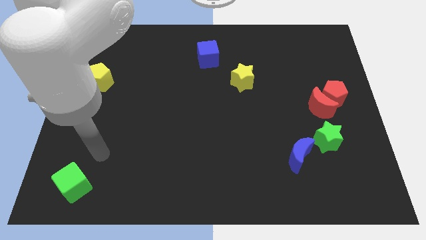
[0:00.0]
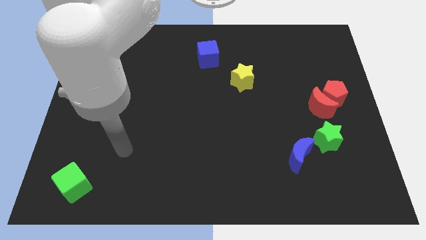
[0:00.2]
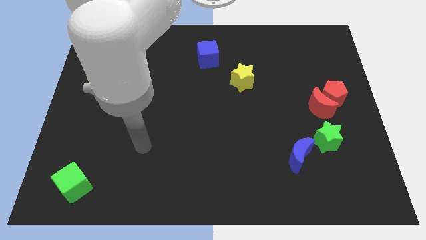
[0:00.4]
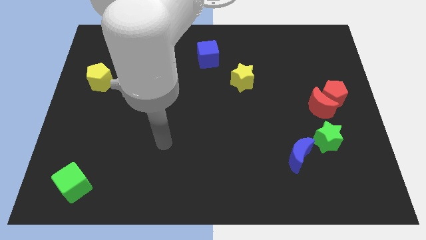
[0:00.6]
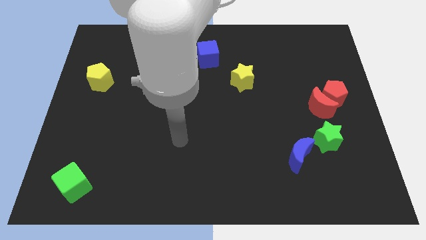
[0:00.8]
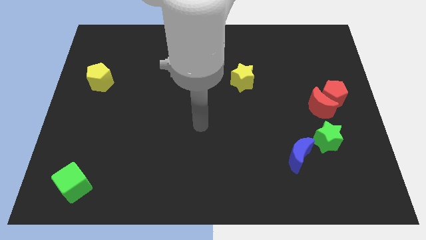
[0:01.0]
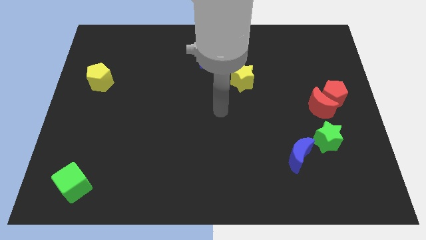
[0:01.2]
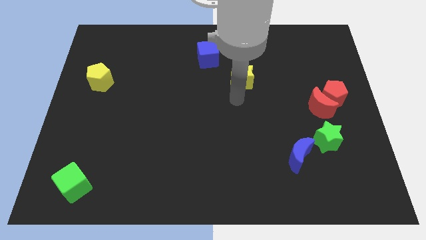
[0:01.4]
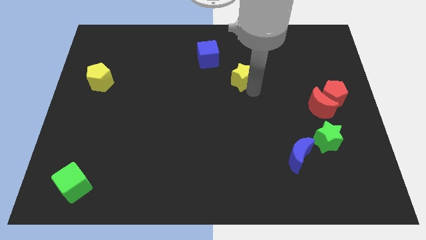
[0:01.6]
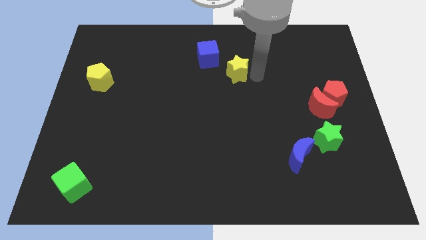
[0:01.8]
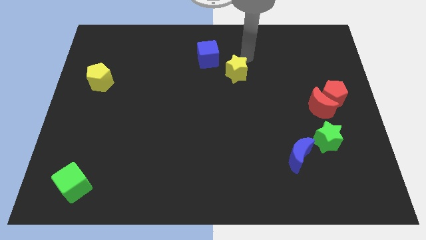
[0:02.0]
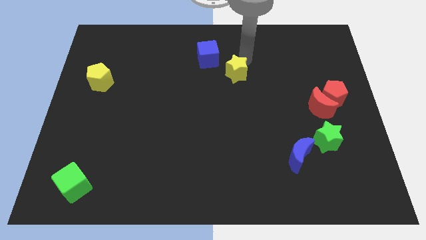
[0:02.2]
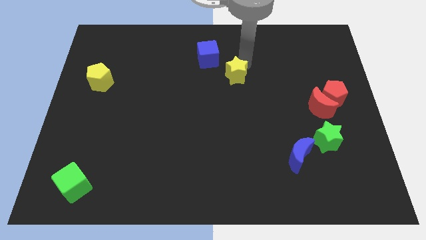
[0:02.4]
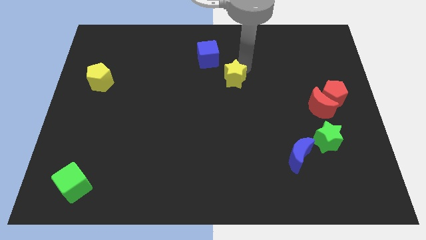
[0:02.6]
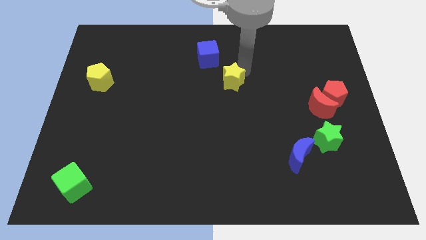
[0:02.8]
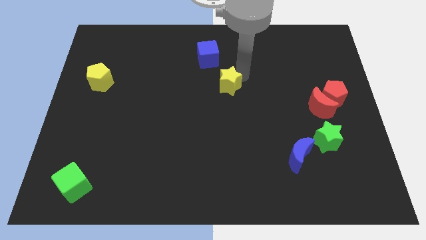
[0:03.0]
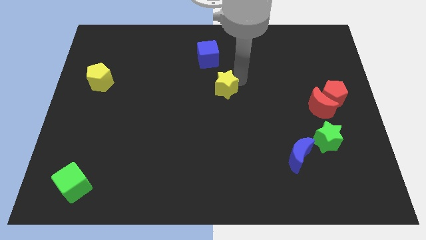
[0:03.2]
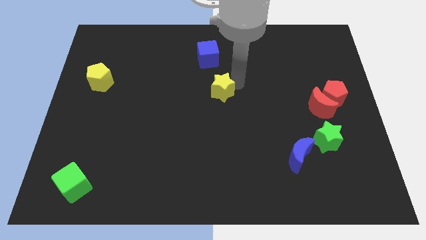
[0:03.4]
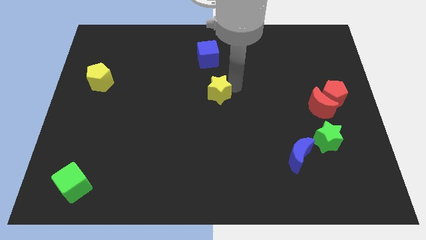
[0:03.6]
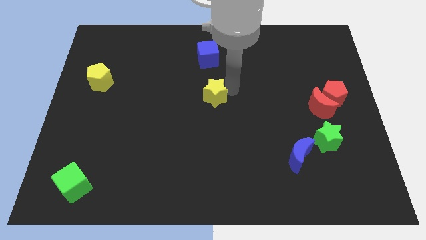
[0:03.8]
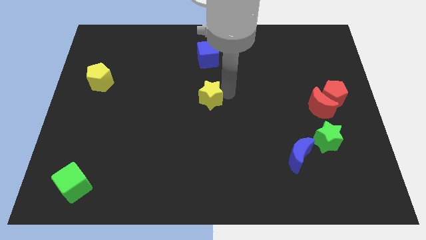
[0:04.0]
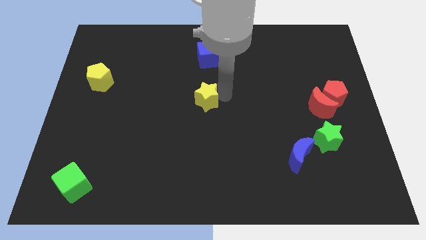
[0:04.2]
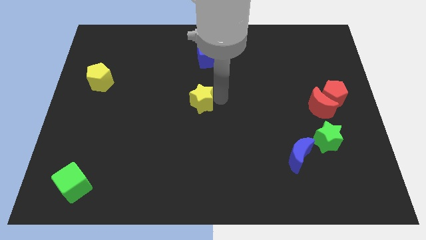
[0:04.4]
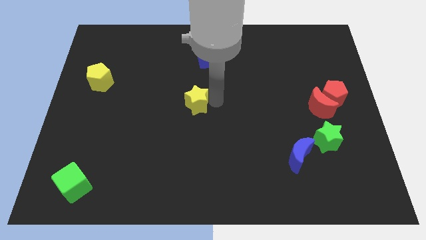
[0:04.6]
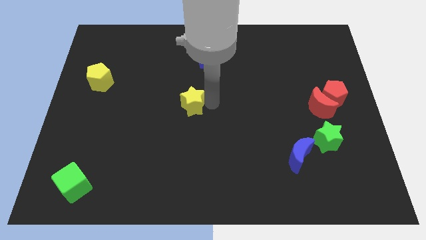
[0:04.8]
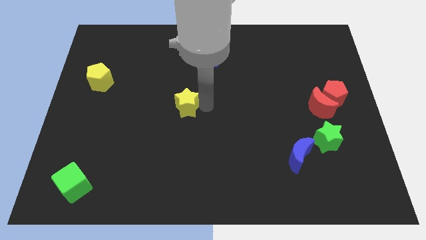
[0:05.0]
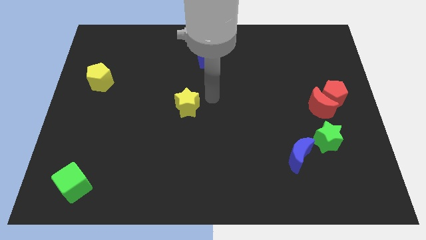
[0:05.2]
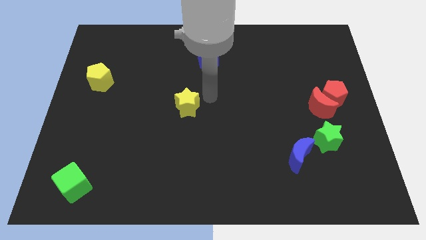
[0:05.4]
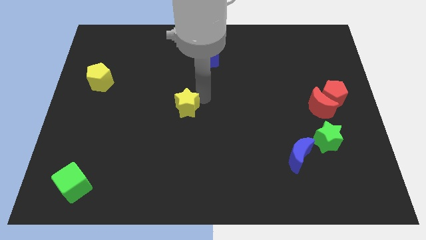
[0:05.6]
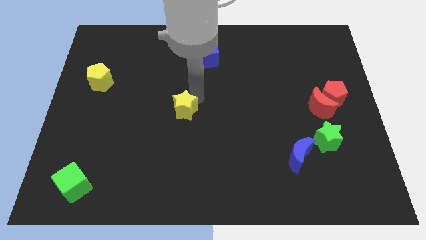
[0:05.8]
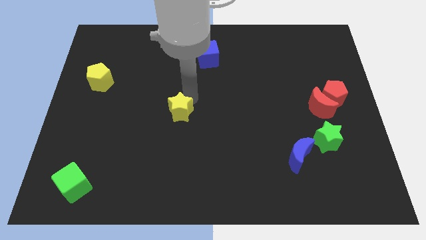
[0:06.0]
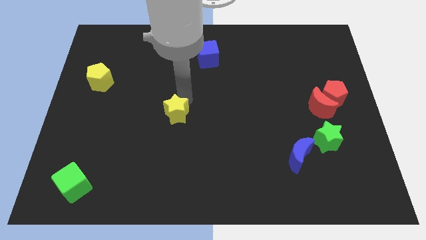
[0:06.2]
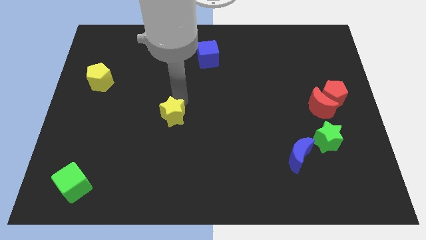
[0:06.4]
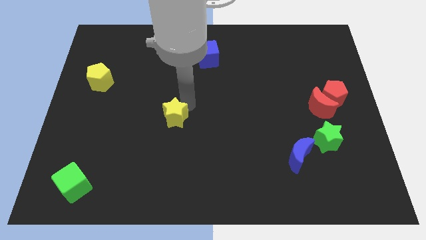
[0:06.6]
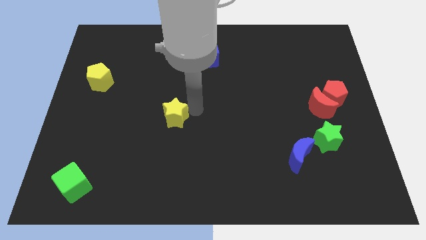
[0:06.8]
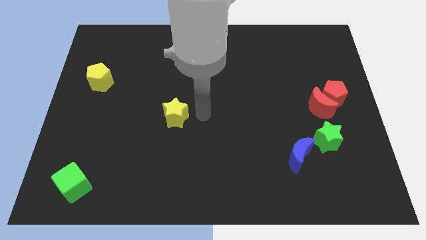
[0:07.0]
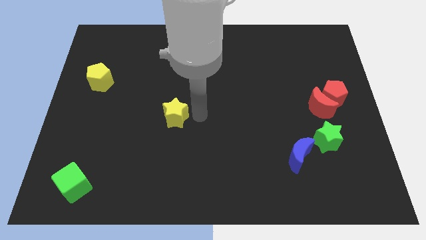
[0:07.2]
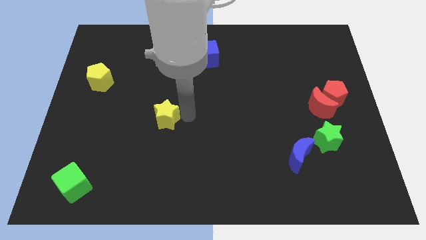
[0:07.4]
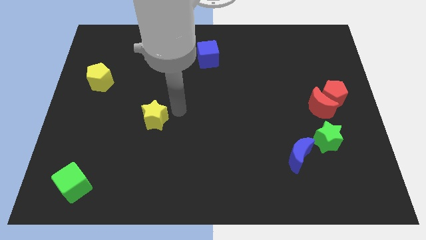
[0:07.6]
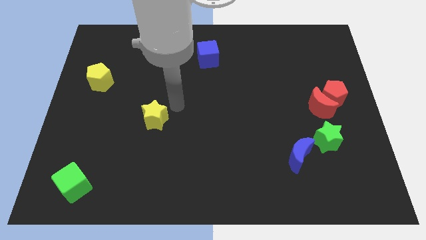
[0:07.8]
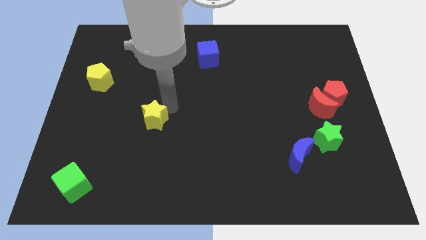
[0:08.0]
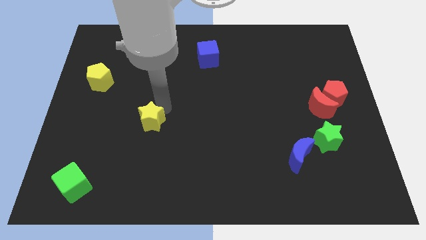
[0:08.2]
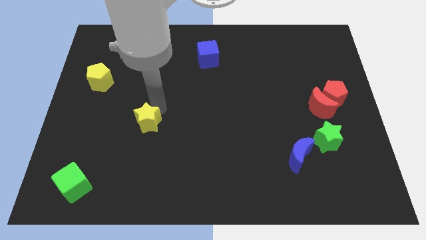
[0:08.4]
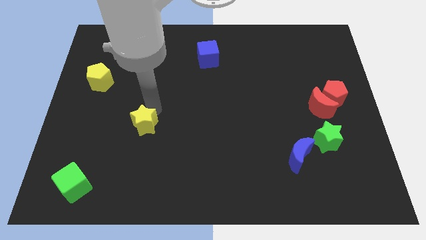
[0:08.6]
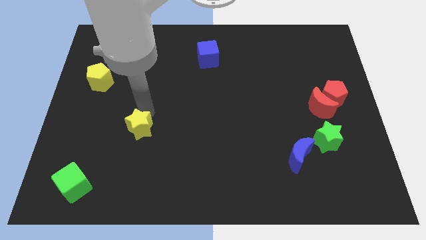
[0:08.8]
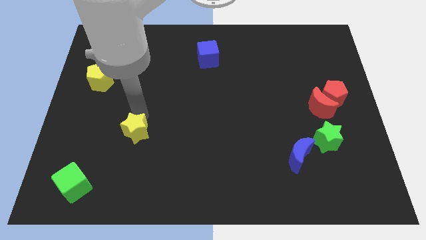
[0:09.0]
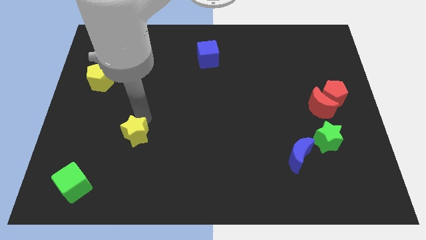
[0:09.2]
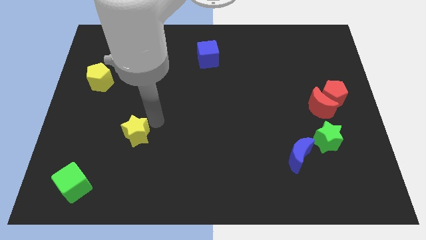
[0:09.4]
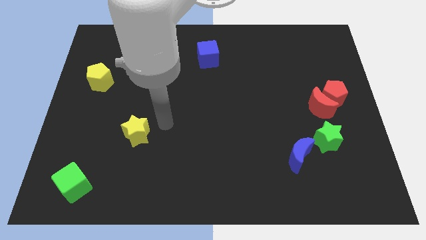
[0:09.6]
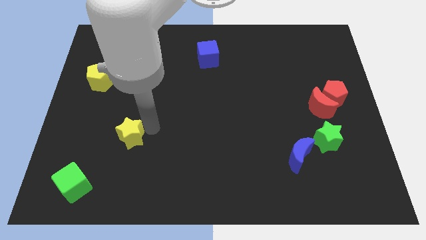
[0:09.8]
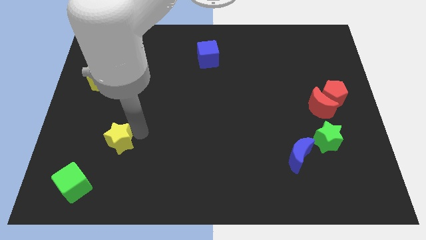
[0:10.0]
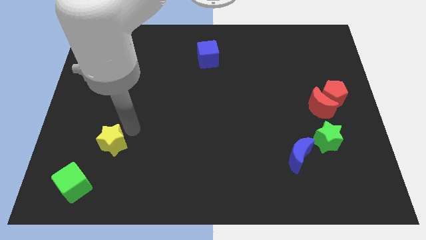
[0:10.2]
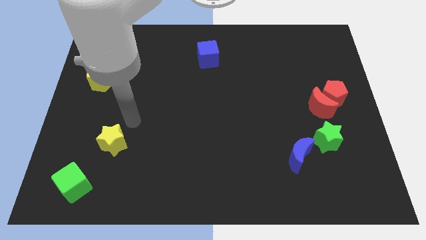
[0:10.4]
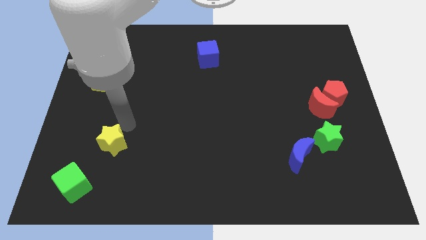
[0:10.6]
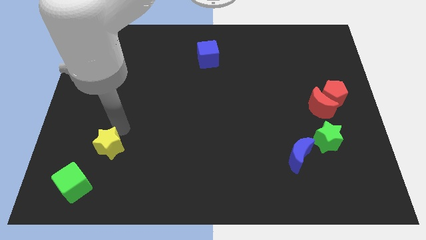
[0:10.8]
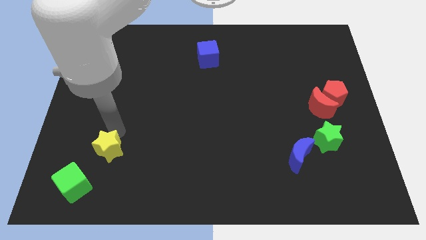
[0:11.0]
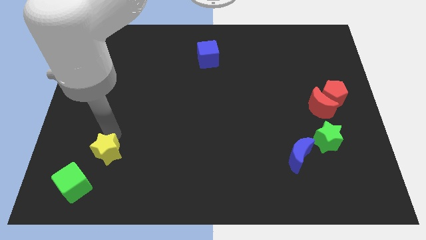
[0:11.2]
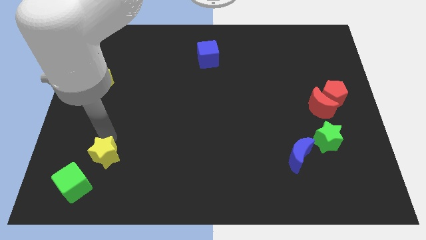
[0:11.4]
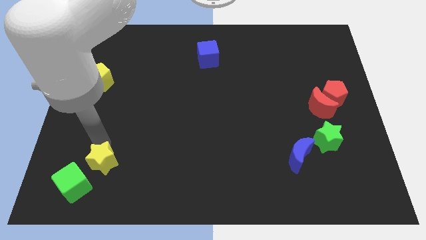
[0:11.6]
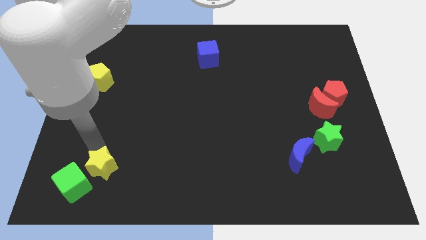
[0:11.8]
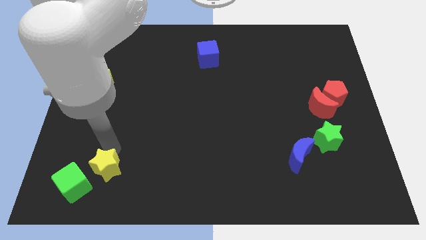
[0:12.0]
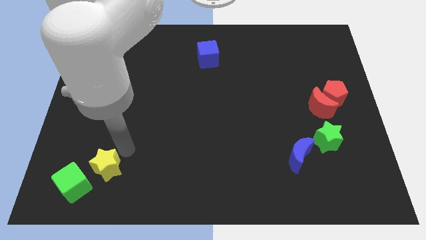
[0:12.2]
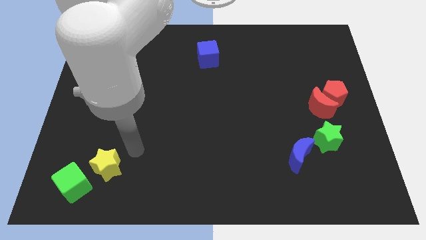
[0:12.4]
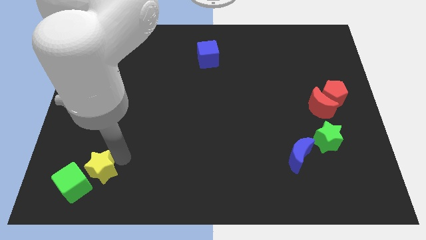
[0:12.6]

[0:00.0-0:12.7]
push the yellow star to the green cube

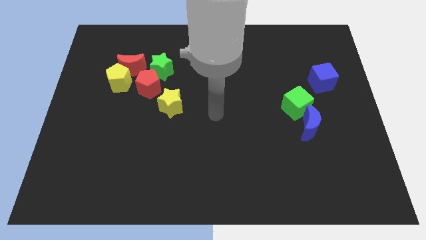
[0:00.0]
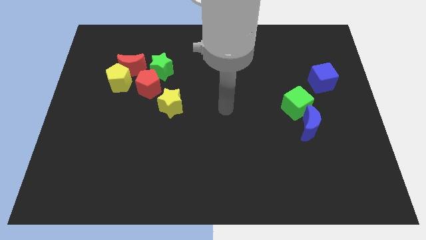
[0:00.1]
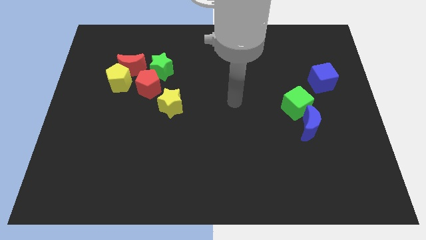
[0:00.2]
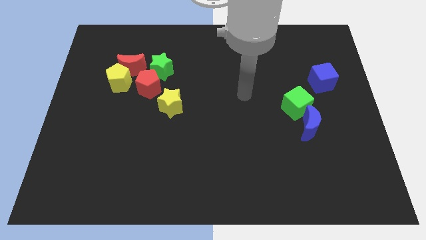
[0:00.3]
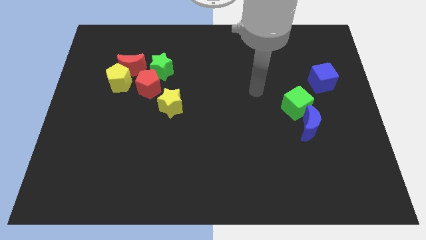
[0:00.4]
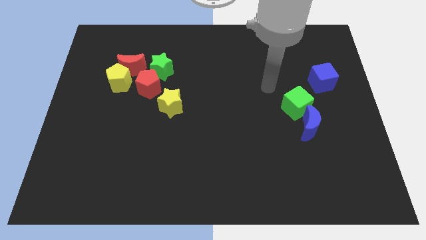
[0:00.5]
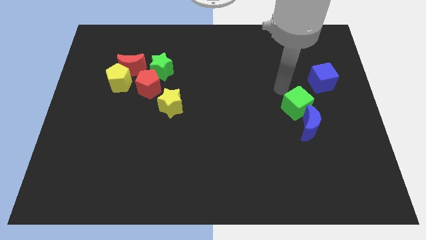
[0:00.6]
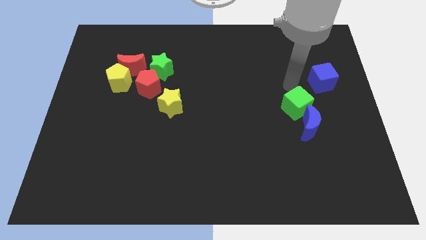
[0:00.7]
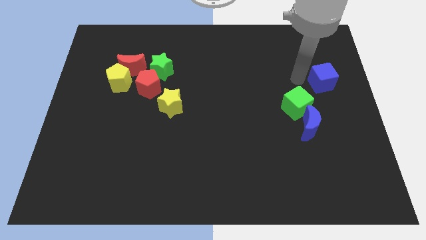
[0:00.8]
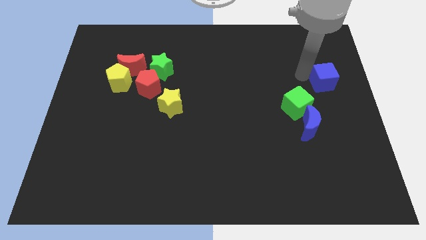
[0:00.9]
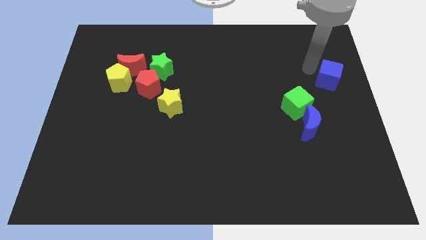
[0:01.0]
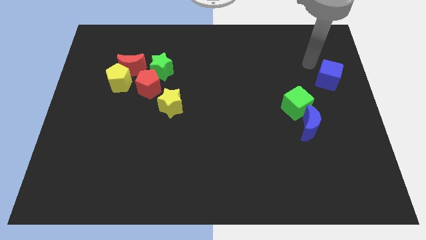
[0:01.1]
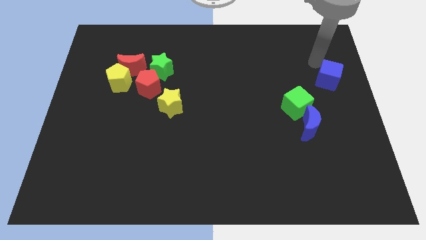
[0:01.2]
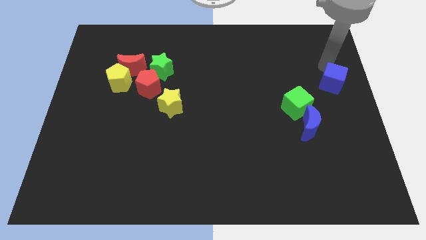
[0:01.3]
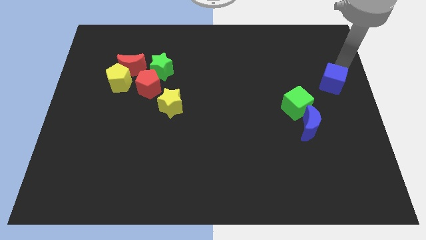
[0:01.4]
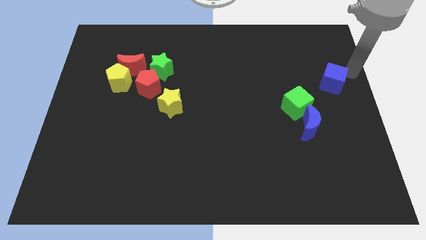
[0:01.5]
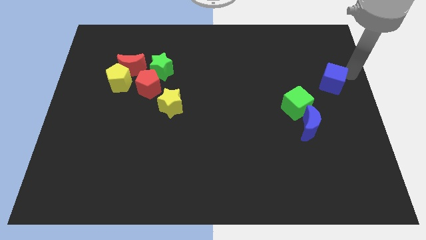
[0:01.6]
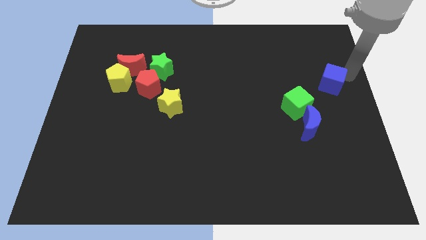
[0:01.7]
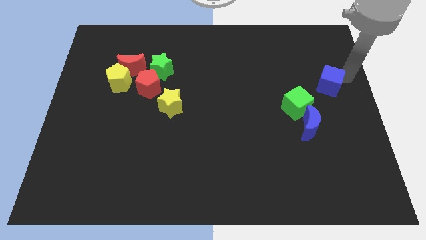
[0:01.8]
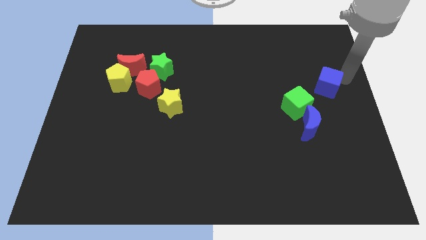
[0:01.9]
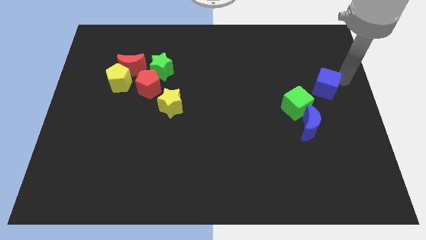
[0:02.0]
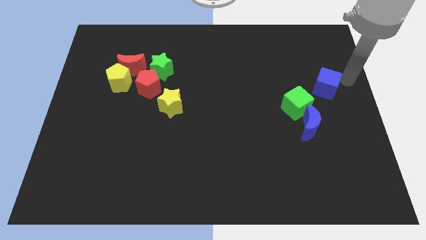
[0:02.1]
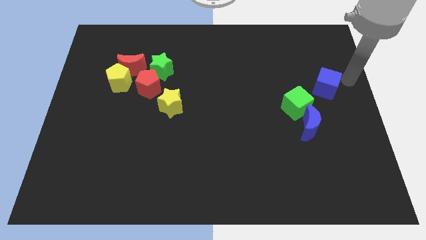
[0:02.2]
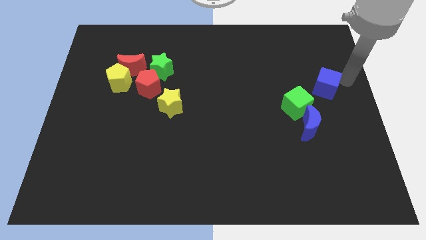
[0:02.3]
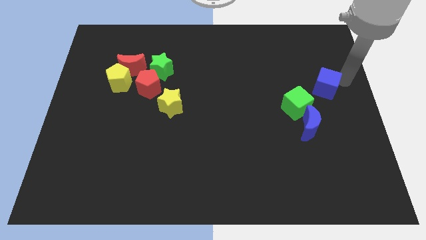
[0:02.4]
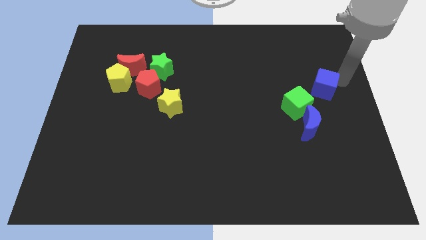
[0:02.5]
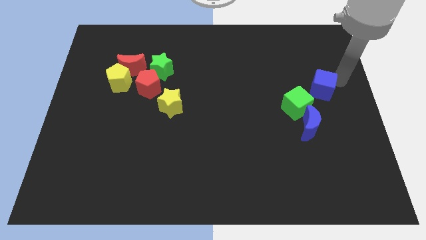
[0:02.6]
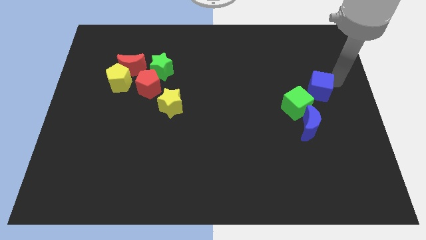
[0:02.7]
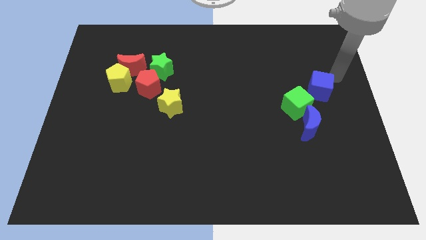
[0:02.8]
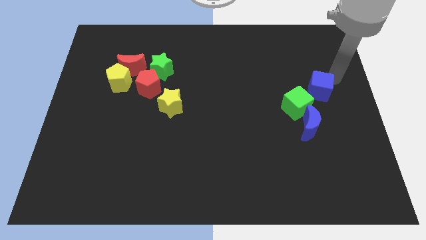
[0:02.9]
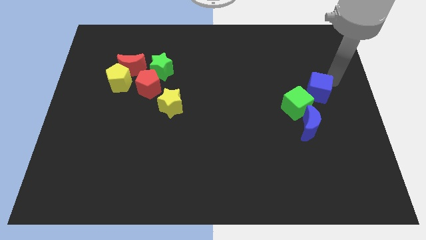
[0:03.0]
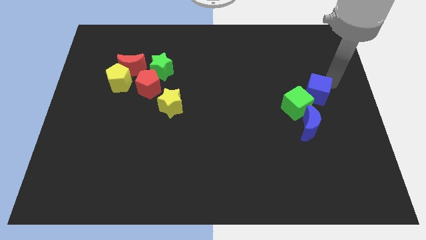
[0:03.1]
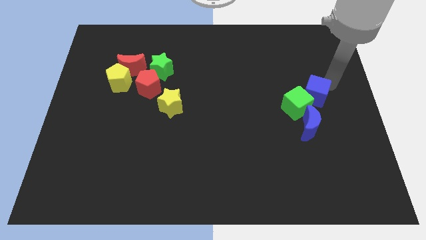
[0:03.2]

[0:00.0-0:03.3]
move the blue cube next to the green cube
